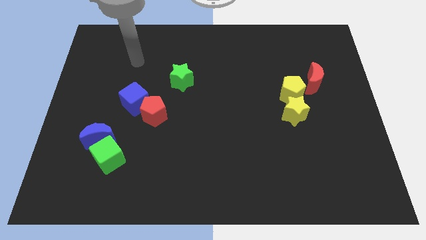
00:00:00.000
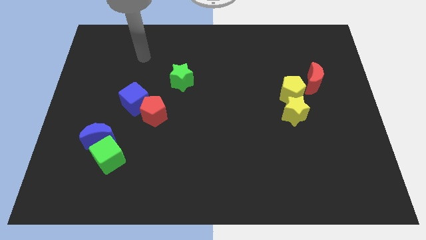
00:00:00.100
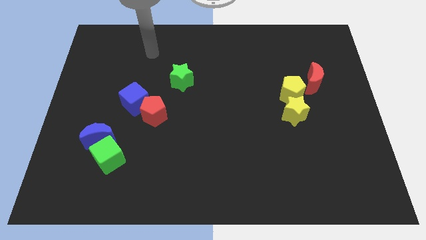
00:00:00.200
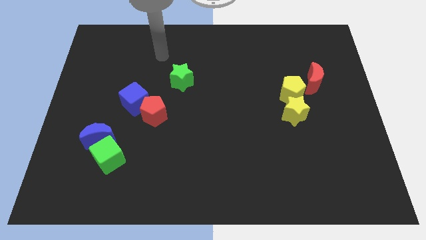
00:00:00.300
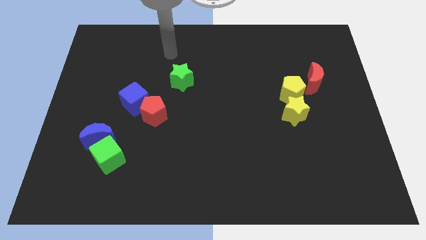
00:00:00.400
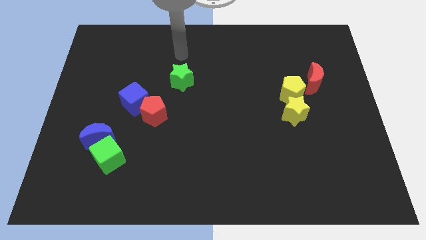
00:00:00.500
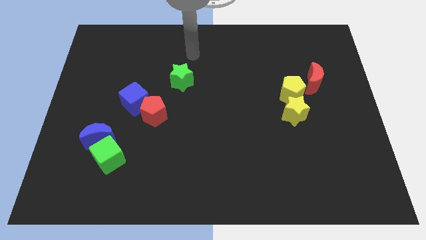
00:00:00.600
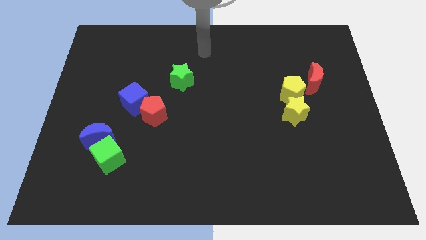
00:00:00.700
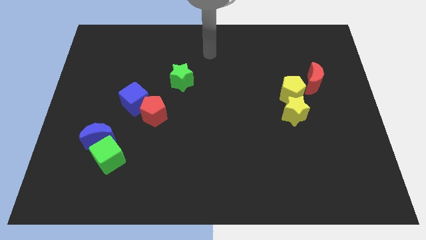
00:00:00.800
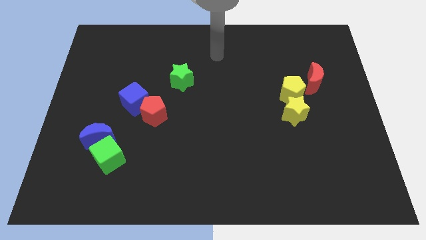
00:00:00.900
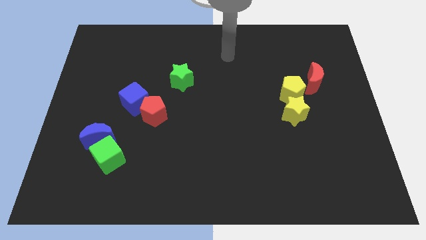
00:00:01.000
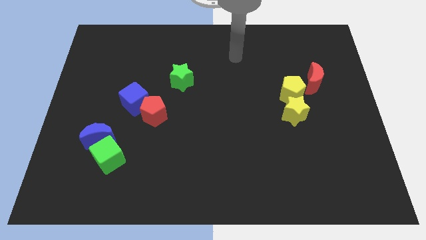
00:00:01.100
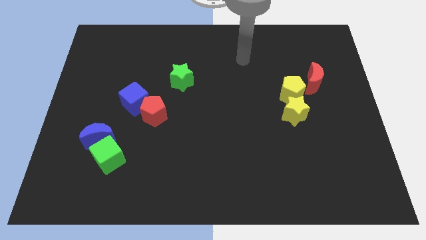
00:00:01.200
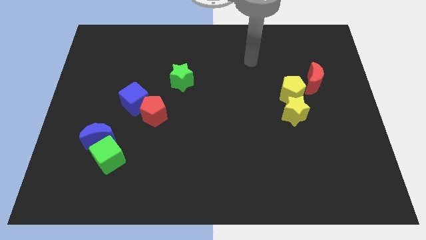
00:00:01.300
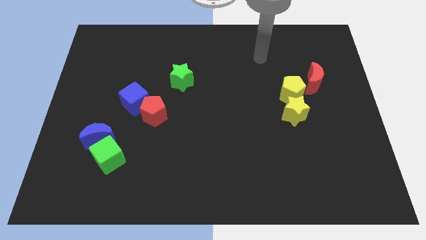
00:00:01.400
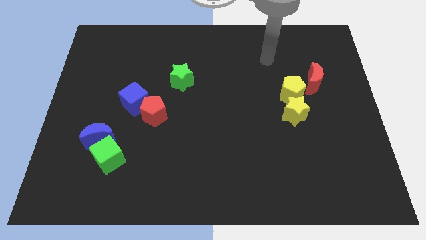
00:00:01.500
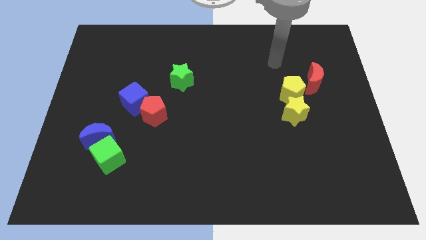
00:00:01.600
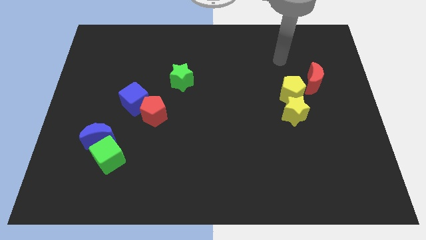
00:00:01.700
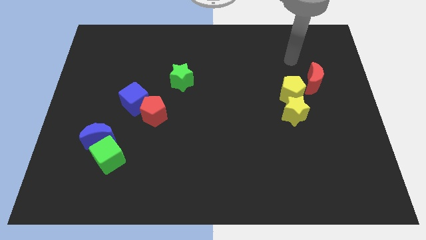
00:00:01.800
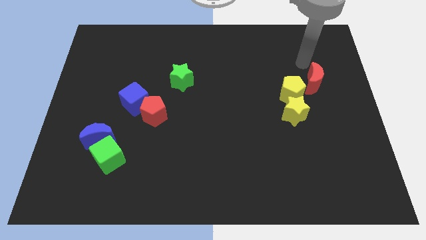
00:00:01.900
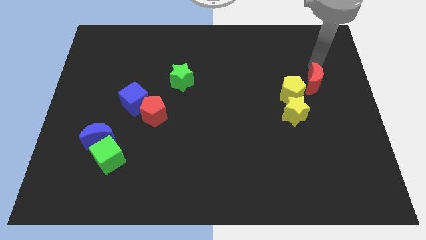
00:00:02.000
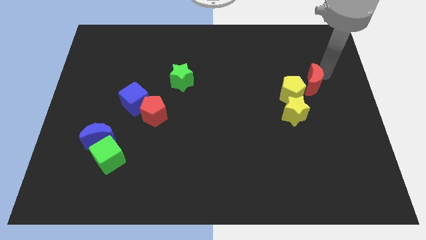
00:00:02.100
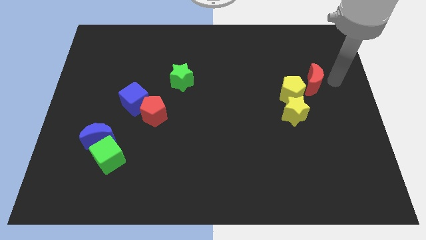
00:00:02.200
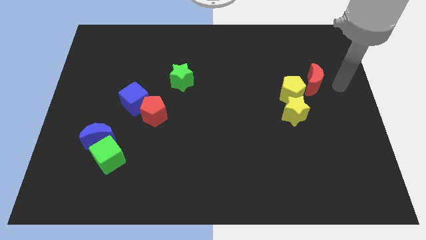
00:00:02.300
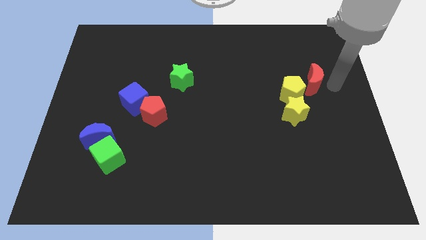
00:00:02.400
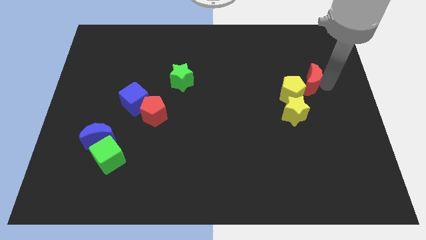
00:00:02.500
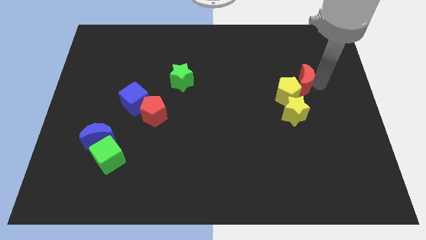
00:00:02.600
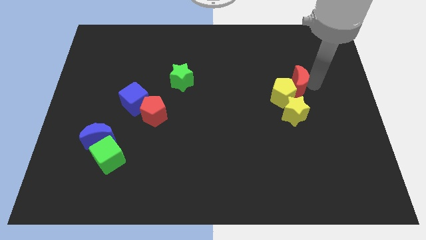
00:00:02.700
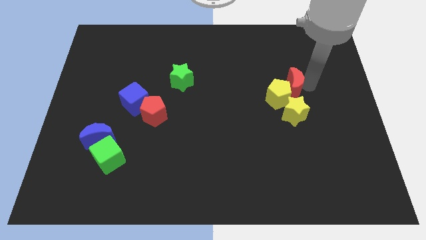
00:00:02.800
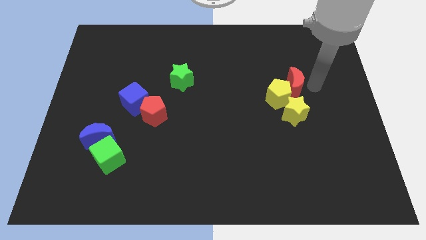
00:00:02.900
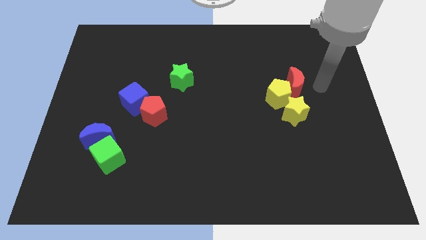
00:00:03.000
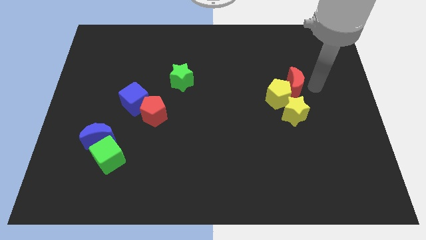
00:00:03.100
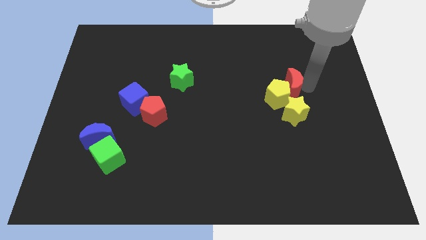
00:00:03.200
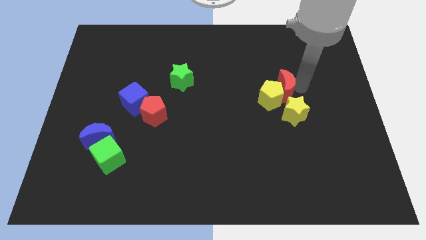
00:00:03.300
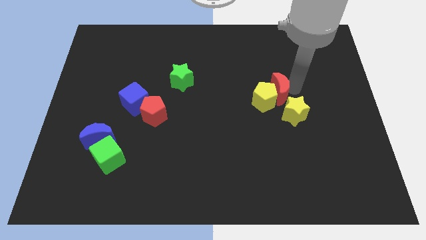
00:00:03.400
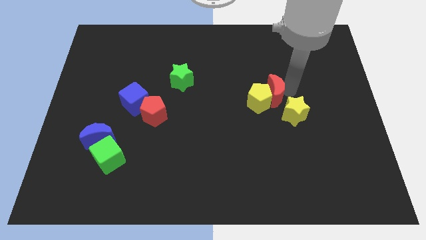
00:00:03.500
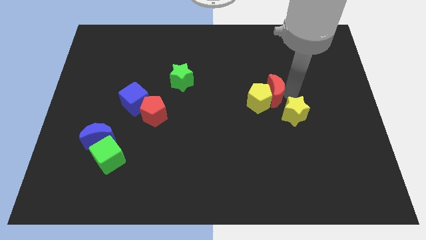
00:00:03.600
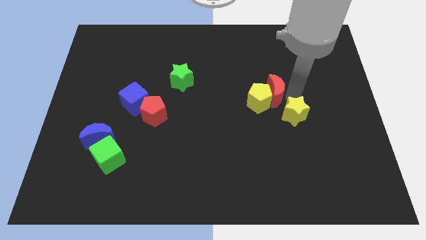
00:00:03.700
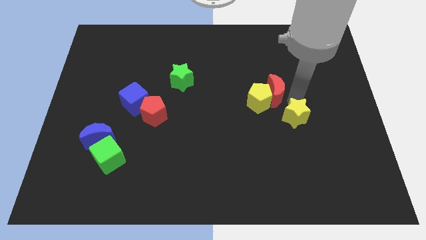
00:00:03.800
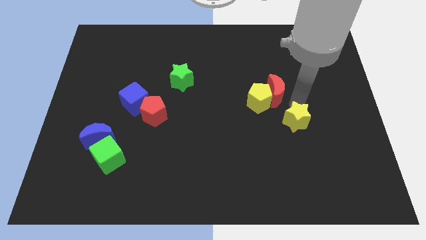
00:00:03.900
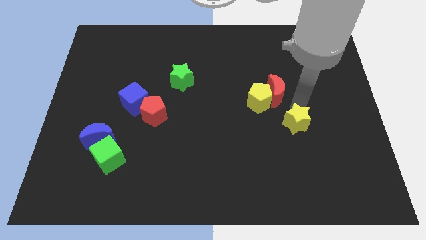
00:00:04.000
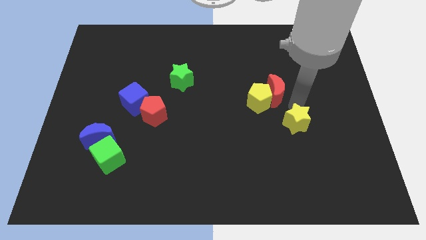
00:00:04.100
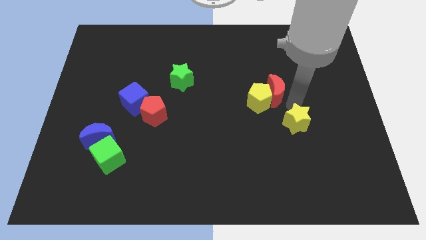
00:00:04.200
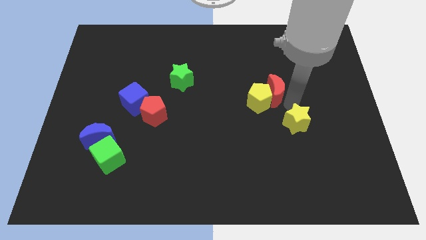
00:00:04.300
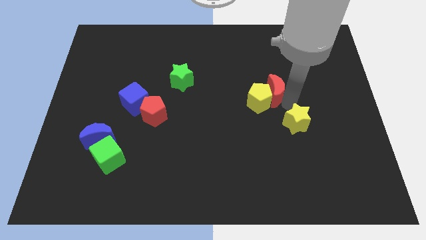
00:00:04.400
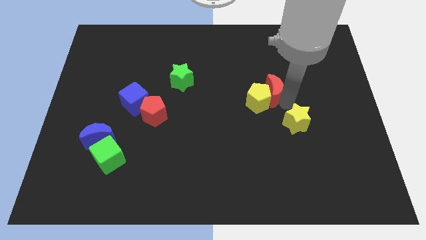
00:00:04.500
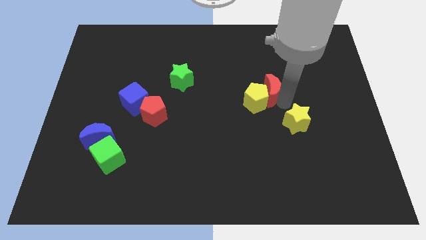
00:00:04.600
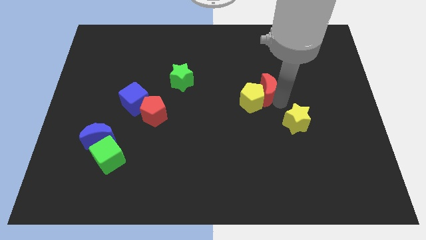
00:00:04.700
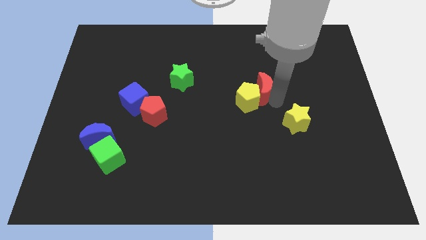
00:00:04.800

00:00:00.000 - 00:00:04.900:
slide the red moon to the middle of the board

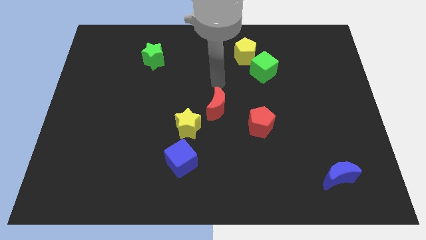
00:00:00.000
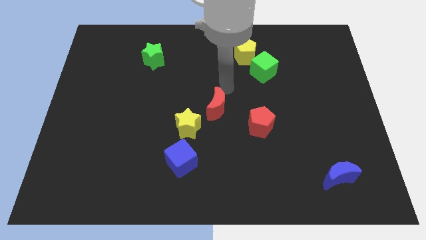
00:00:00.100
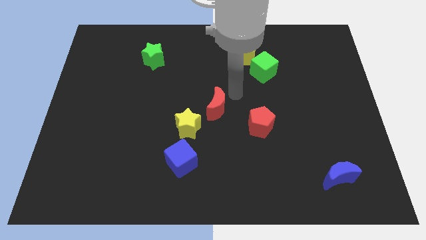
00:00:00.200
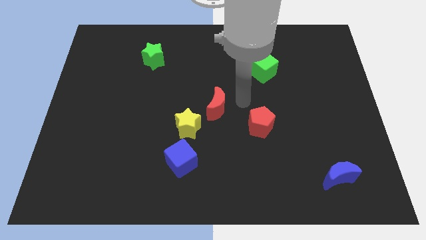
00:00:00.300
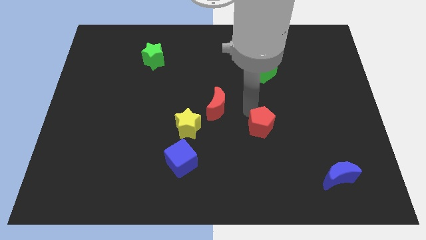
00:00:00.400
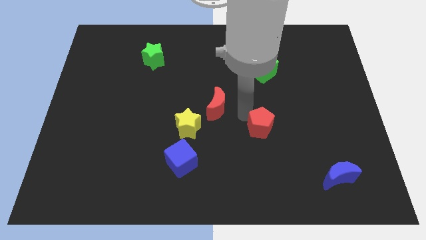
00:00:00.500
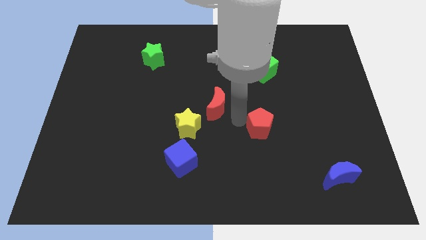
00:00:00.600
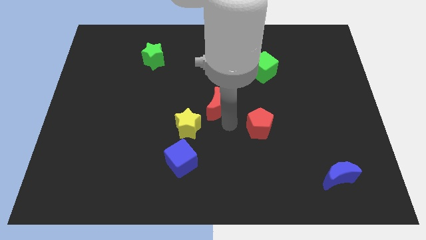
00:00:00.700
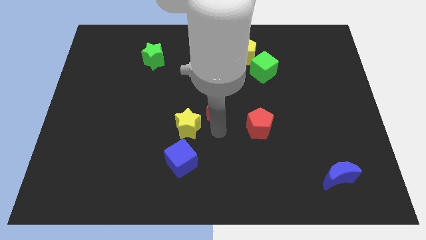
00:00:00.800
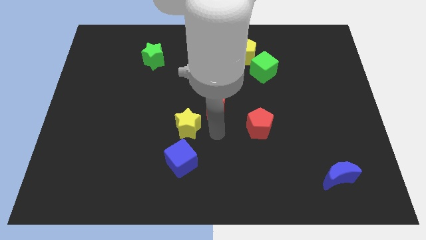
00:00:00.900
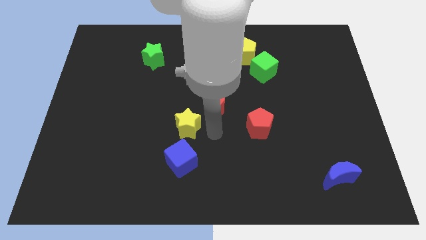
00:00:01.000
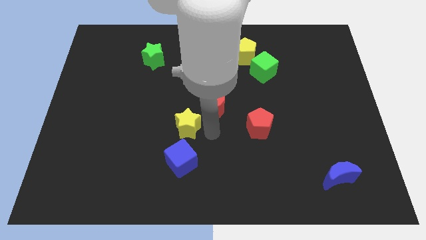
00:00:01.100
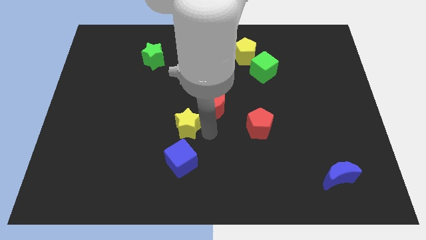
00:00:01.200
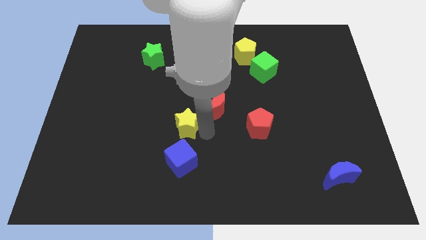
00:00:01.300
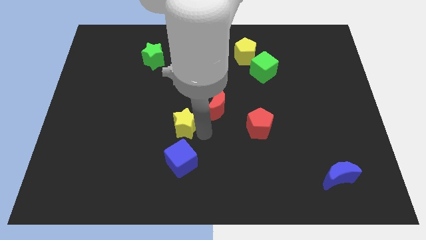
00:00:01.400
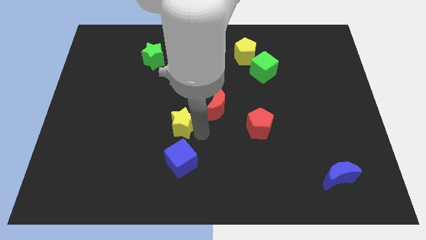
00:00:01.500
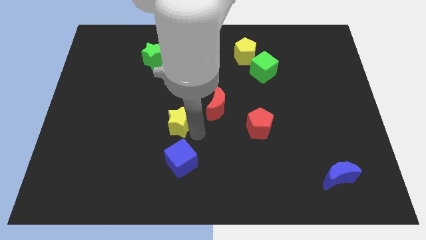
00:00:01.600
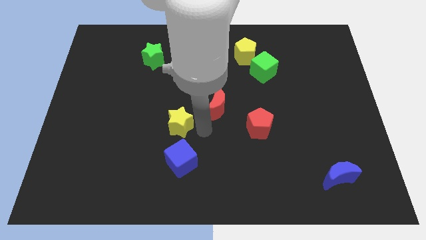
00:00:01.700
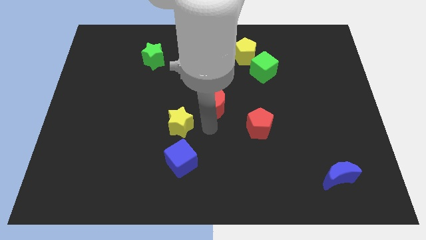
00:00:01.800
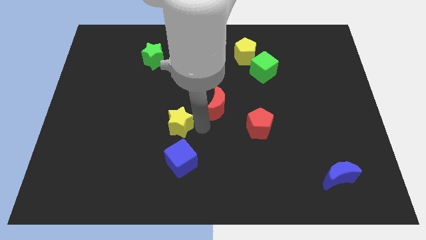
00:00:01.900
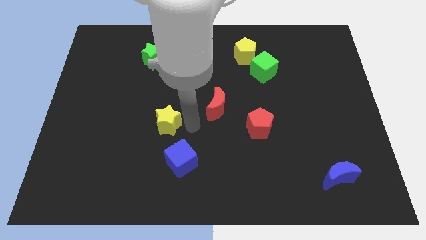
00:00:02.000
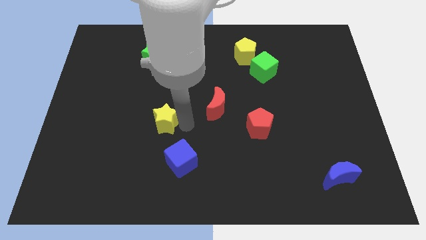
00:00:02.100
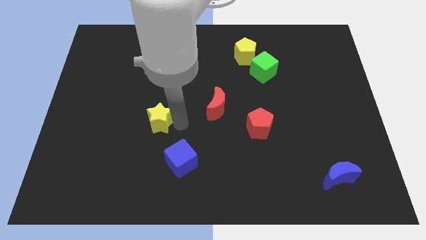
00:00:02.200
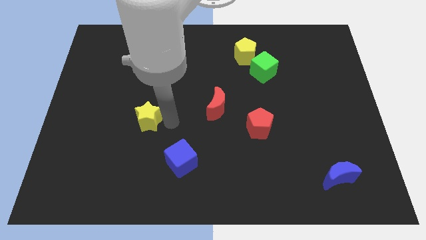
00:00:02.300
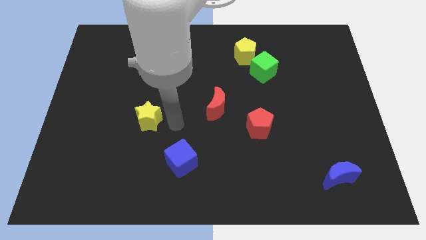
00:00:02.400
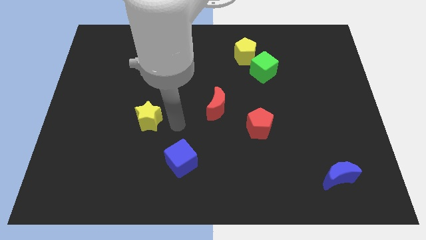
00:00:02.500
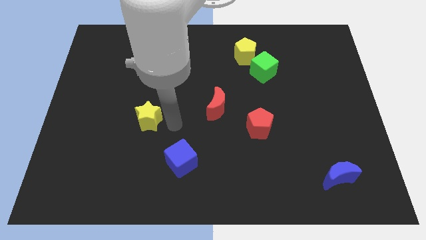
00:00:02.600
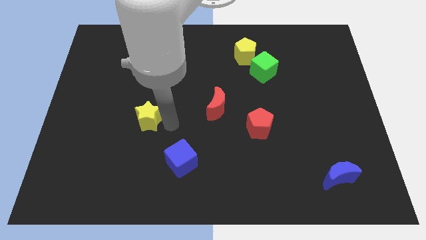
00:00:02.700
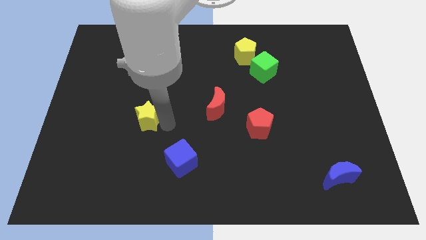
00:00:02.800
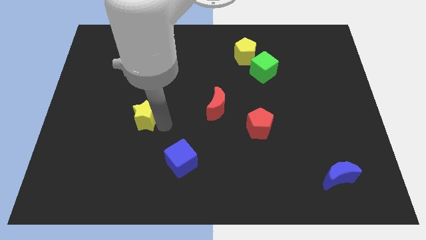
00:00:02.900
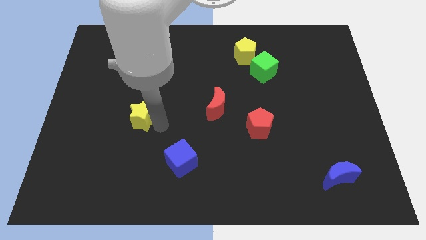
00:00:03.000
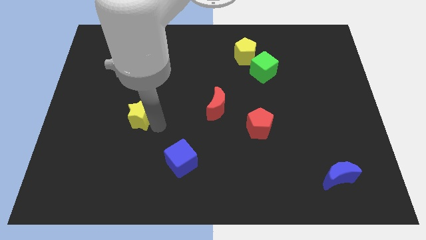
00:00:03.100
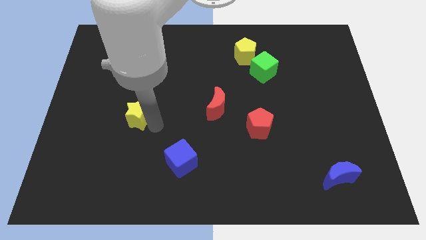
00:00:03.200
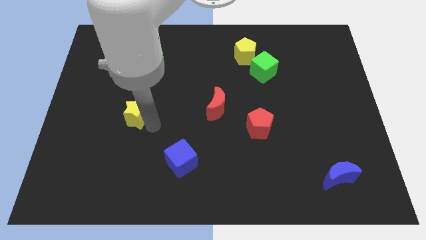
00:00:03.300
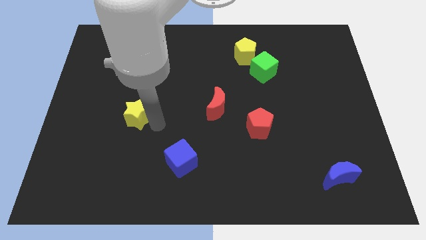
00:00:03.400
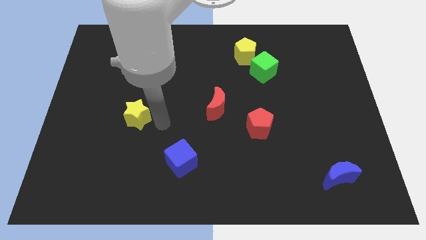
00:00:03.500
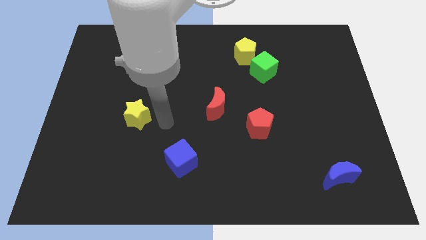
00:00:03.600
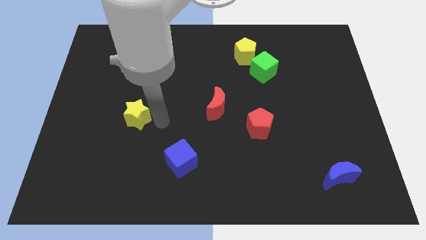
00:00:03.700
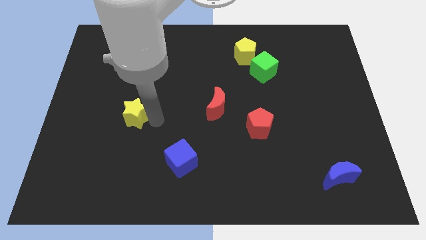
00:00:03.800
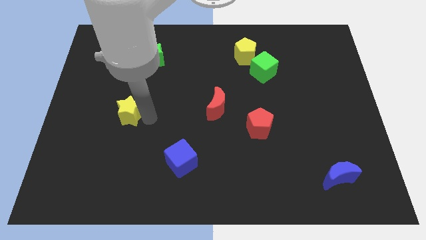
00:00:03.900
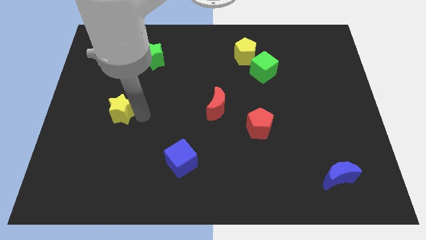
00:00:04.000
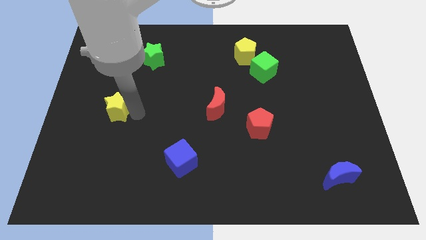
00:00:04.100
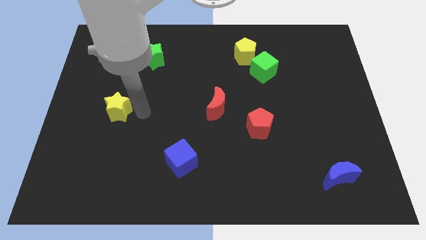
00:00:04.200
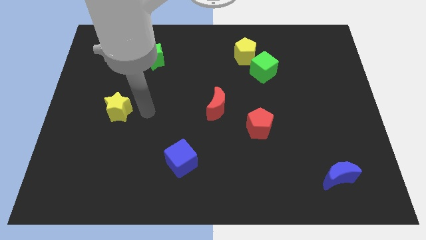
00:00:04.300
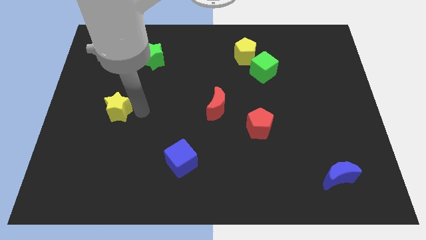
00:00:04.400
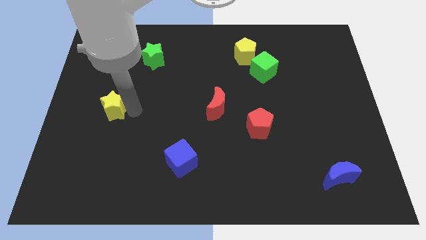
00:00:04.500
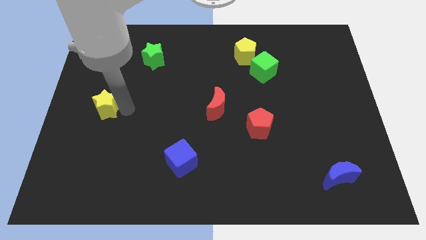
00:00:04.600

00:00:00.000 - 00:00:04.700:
put the yellow star to the center left
